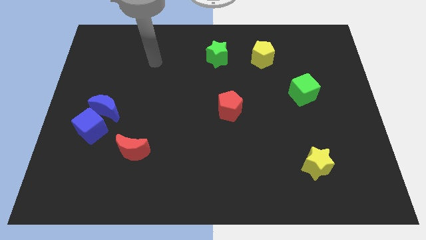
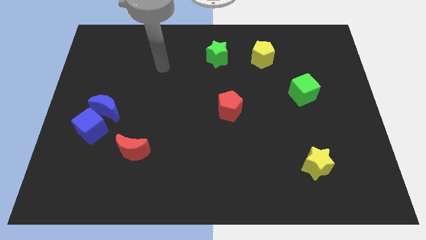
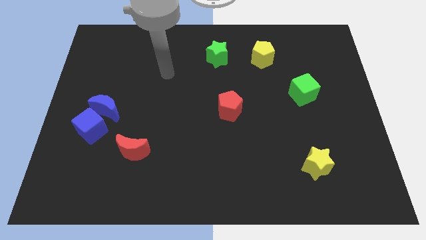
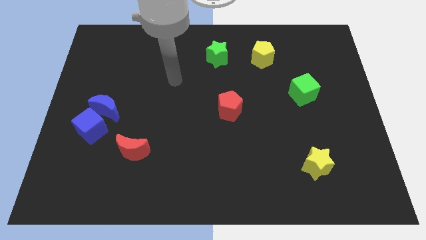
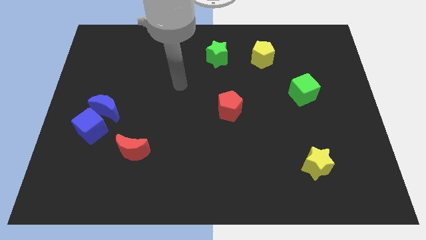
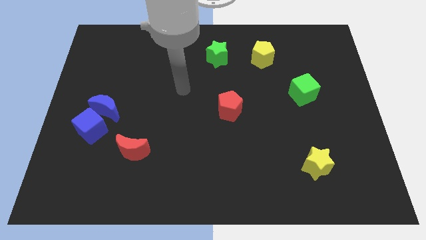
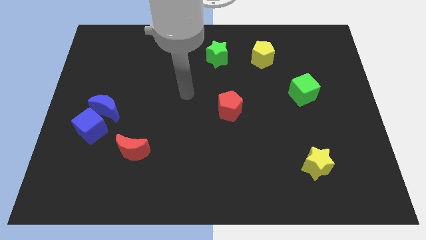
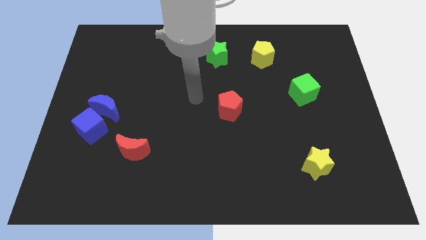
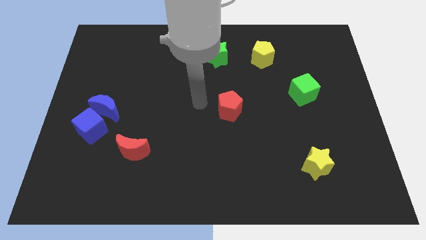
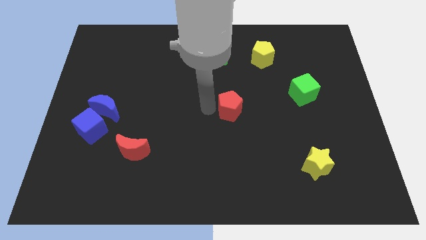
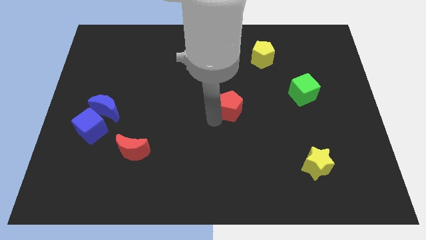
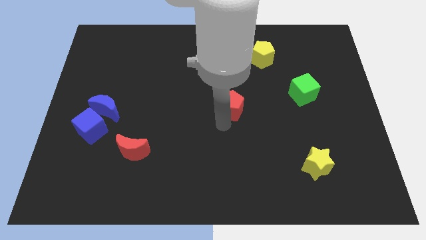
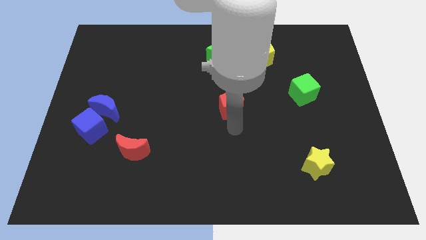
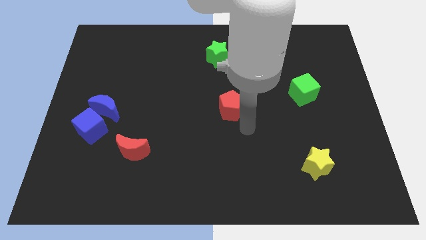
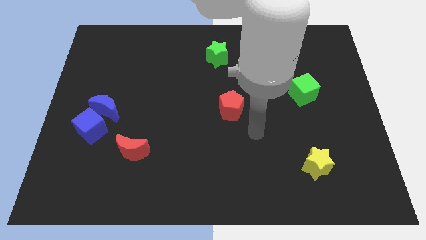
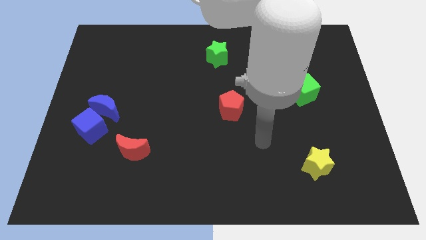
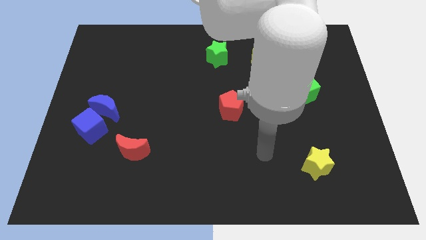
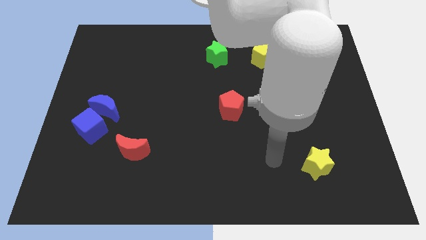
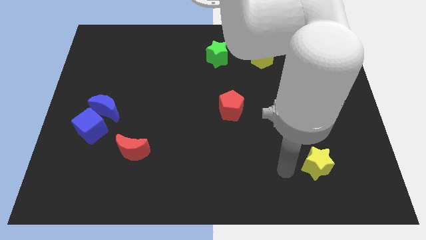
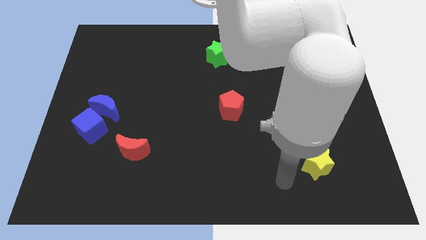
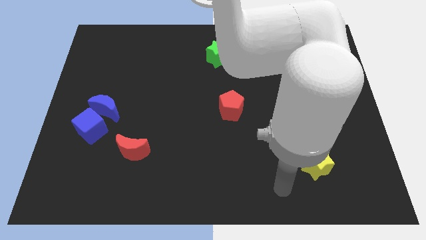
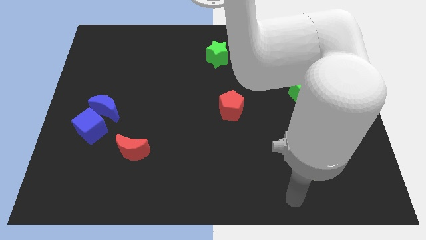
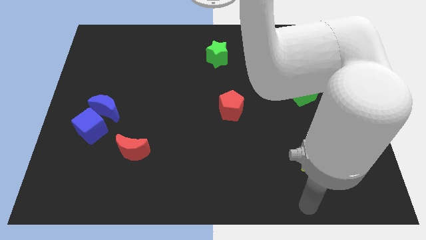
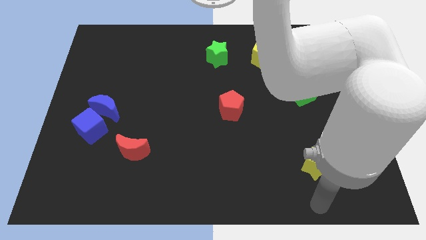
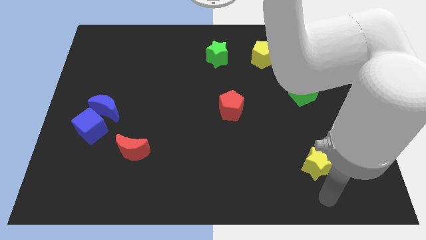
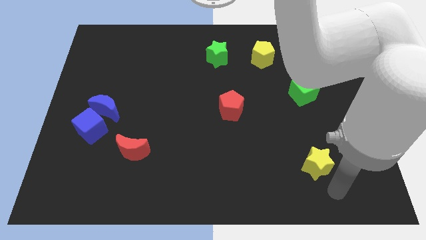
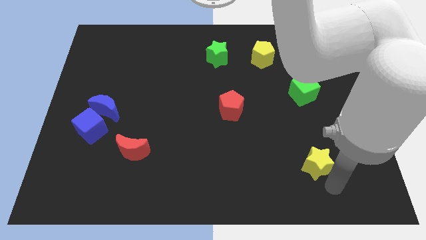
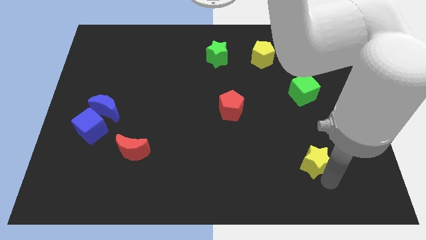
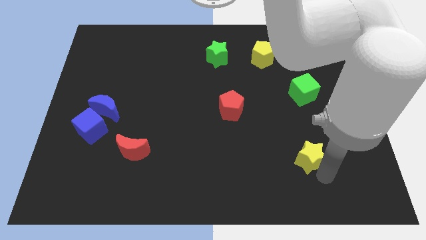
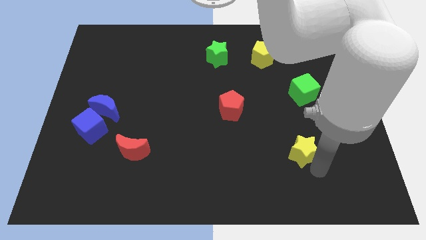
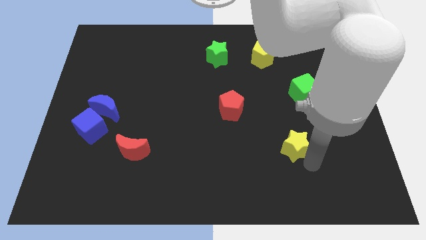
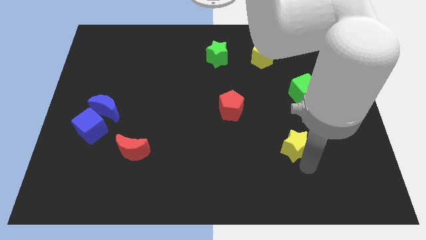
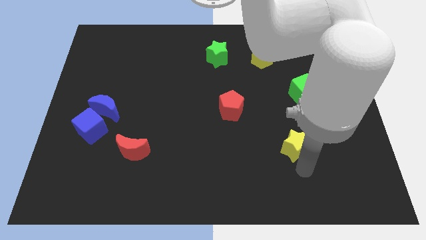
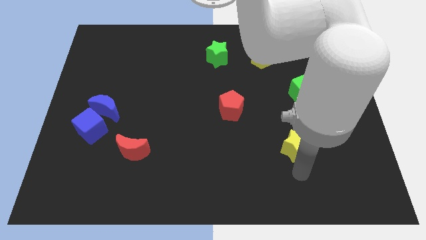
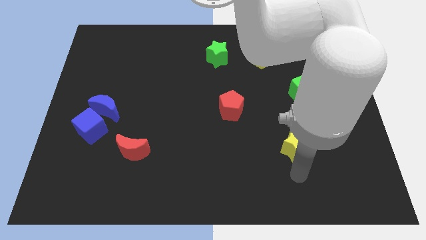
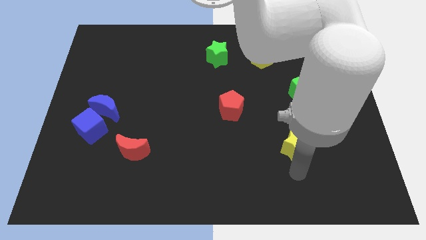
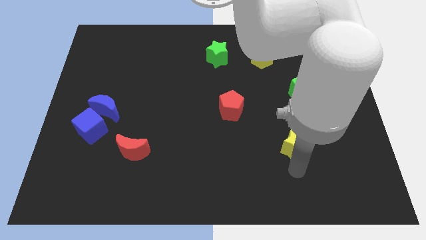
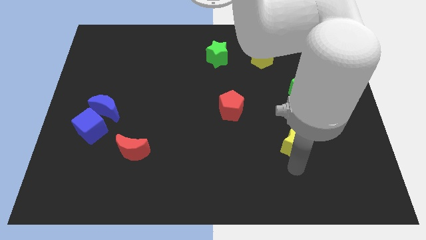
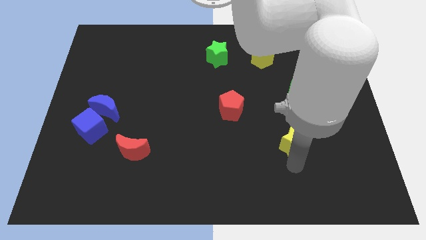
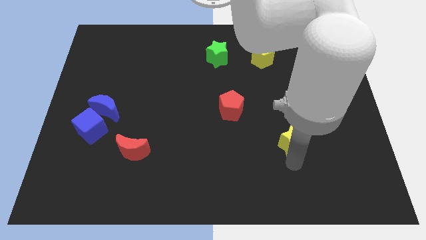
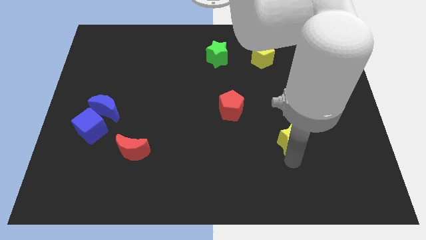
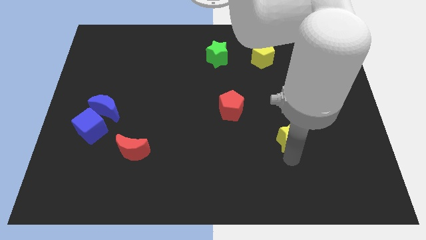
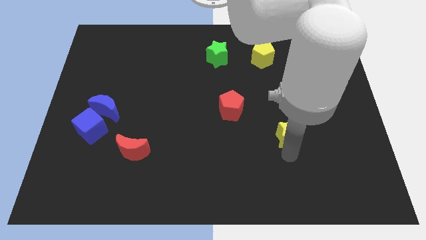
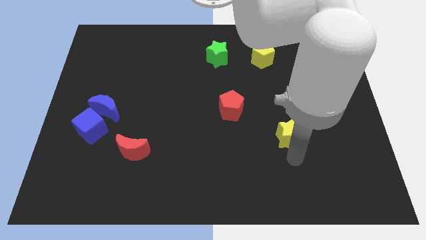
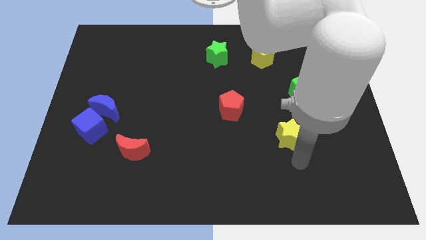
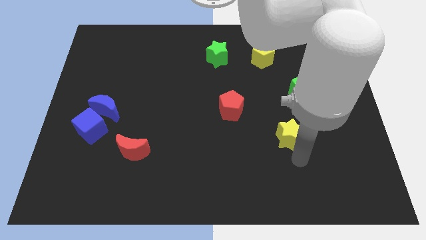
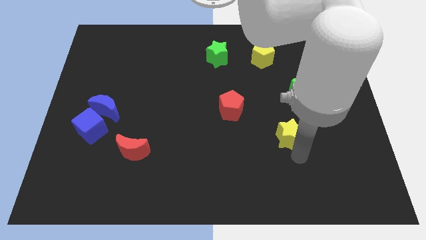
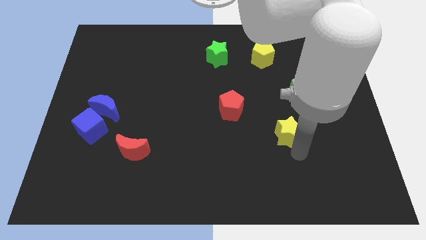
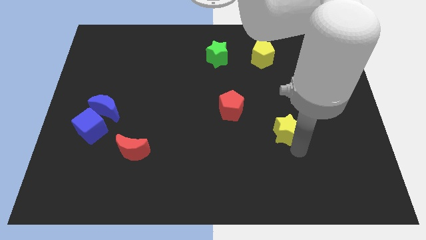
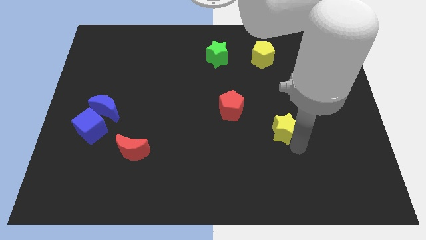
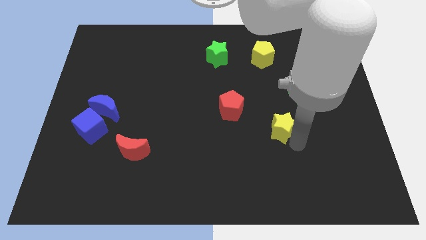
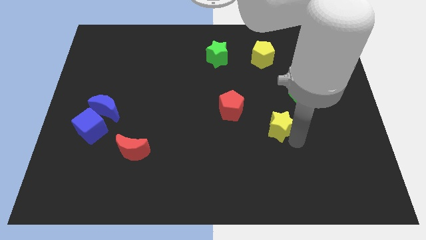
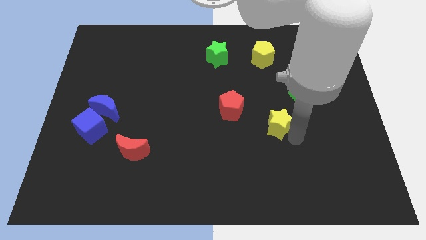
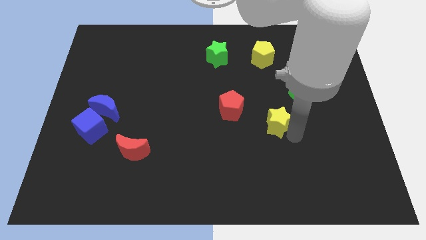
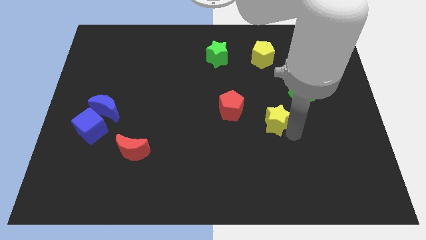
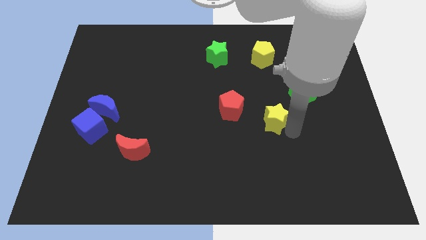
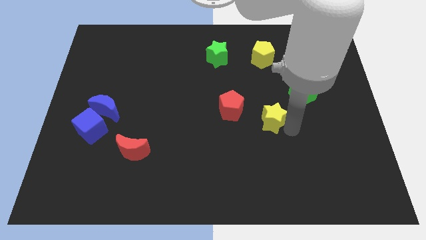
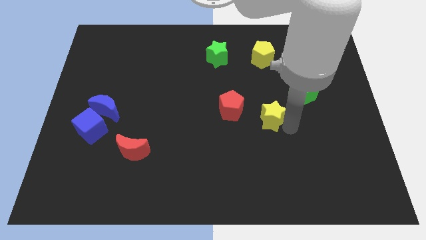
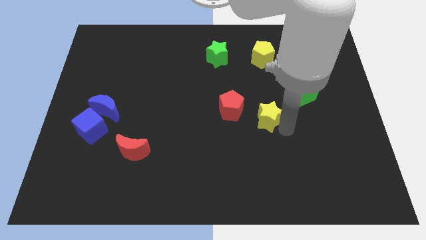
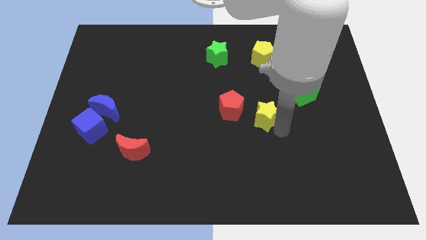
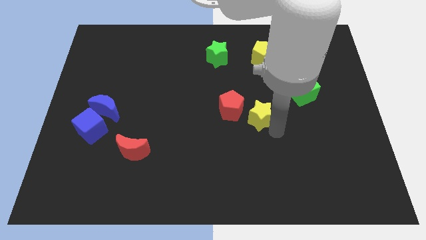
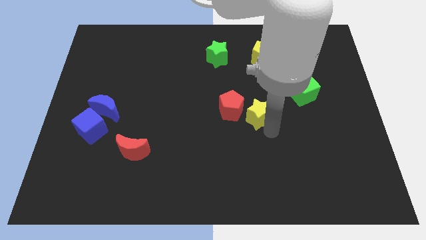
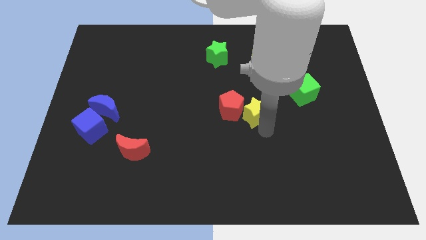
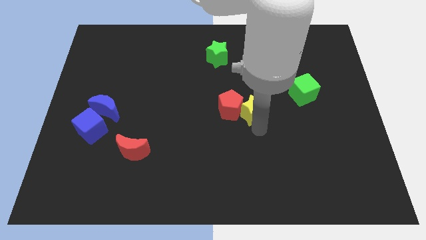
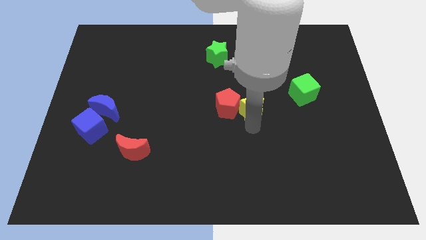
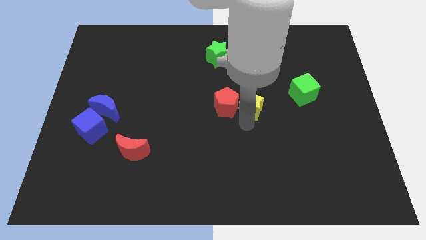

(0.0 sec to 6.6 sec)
move the yellow star just left of the green cube

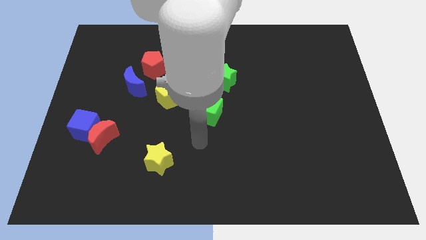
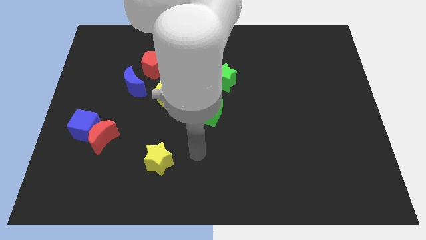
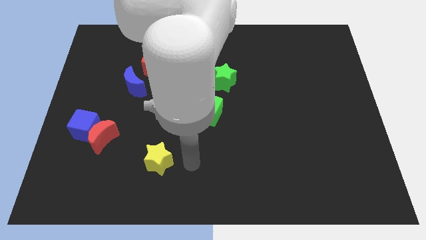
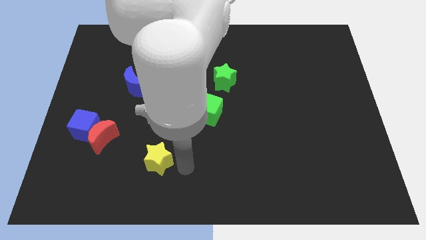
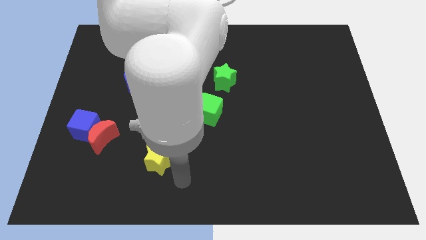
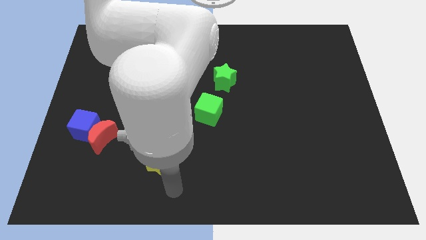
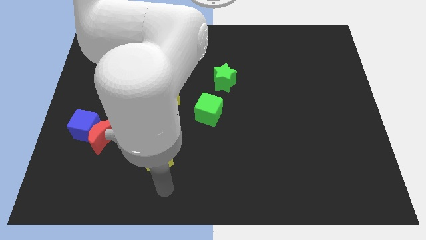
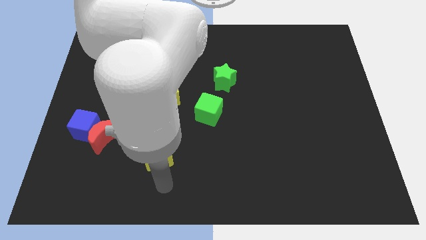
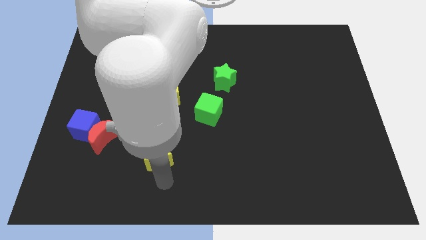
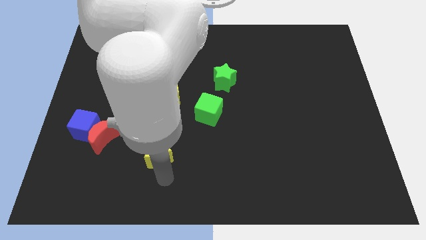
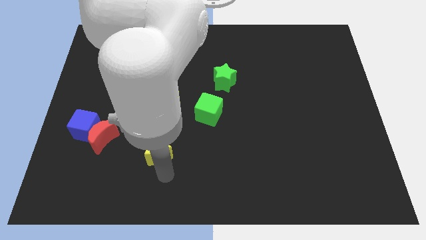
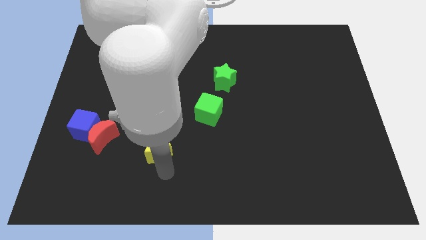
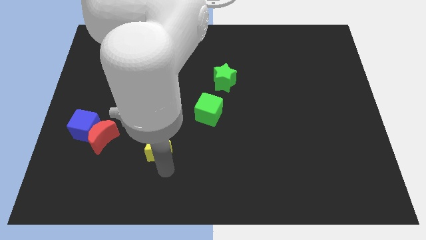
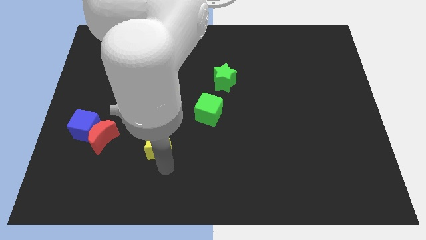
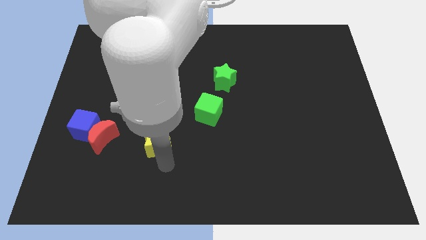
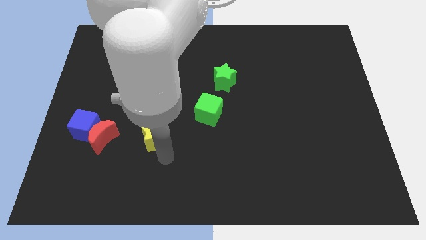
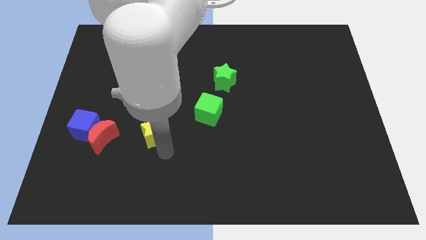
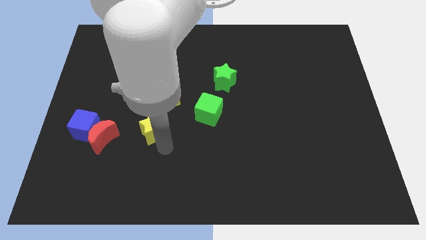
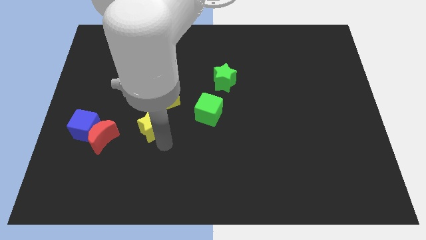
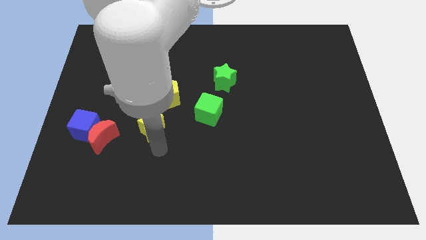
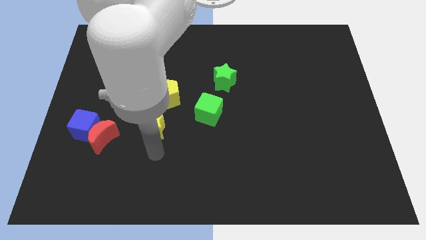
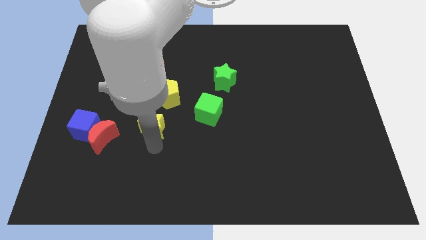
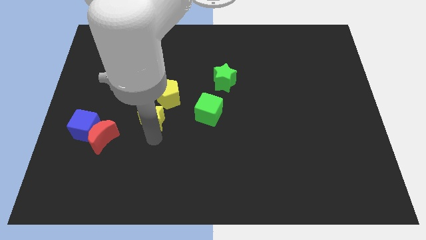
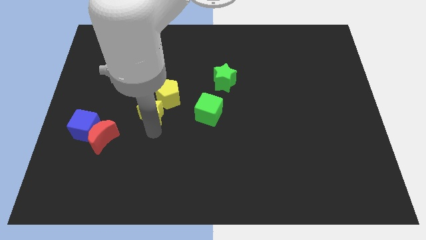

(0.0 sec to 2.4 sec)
put the yellow star to the bottom side of the red pentagon
